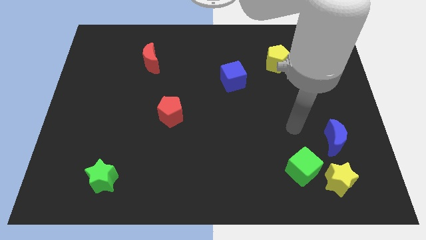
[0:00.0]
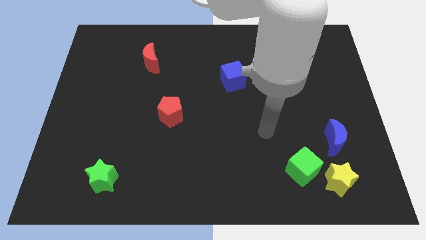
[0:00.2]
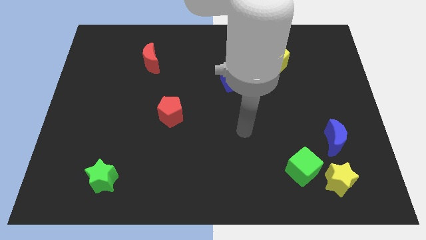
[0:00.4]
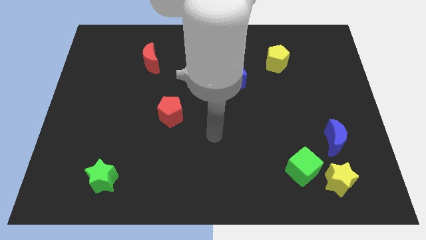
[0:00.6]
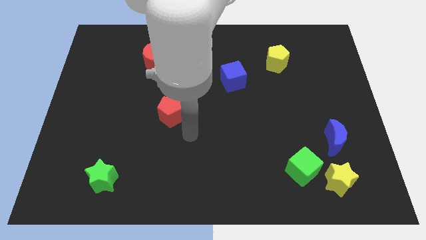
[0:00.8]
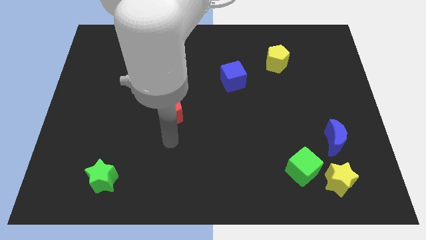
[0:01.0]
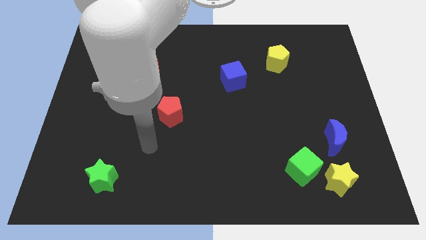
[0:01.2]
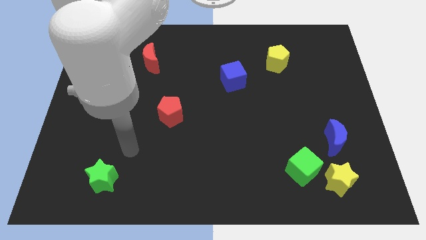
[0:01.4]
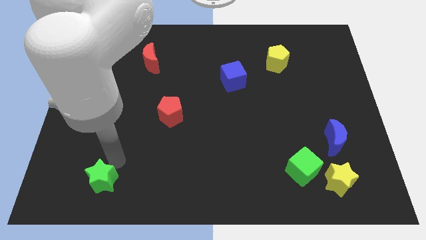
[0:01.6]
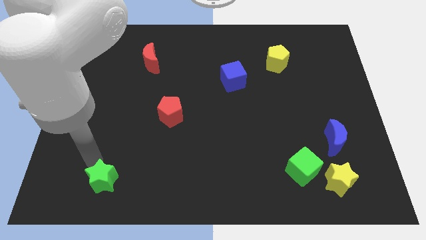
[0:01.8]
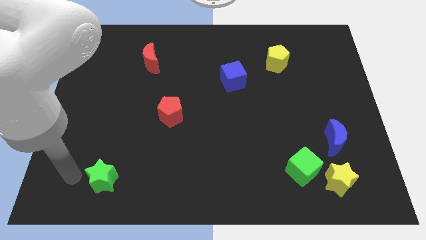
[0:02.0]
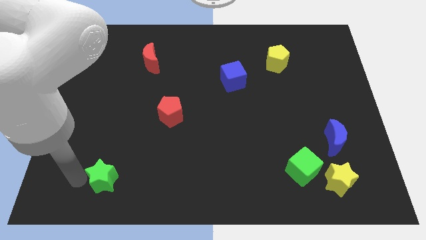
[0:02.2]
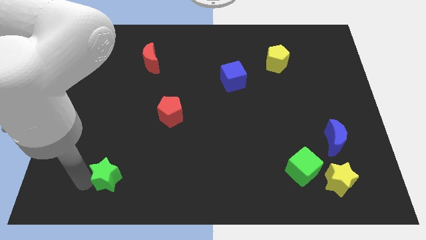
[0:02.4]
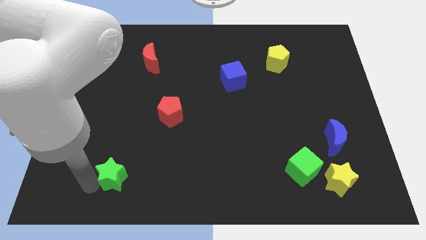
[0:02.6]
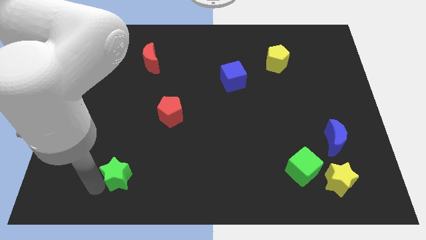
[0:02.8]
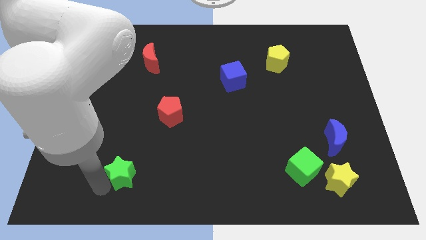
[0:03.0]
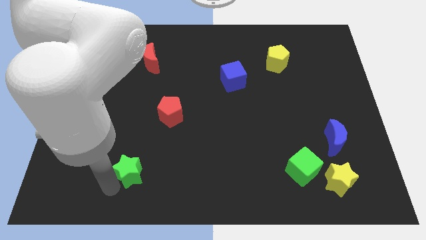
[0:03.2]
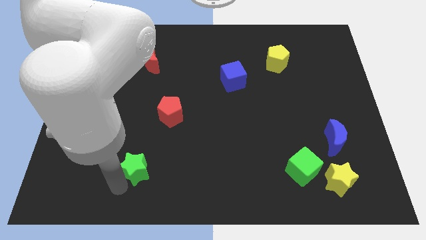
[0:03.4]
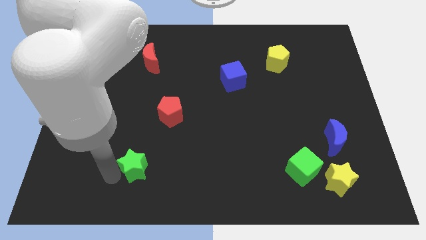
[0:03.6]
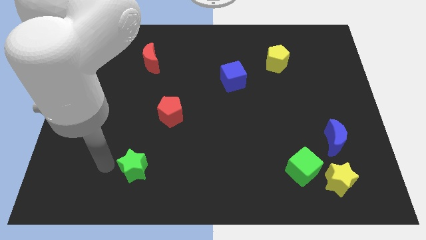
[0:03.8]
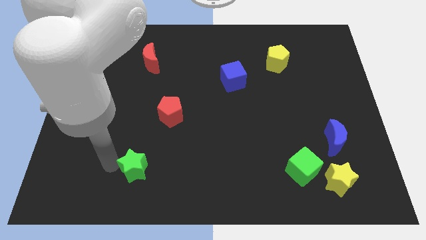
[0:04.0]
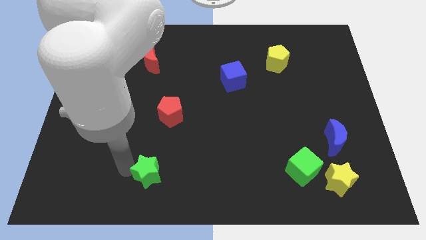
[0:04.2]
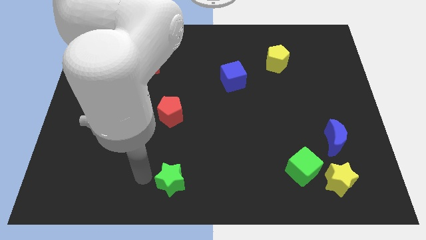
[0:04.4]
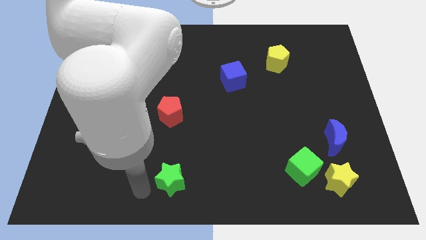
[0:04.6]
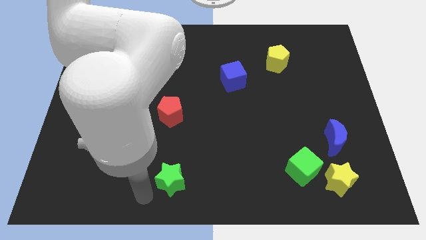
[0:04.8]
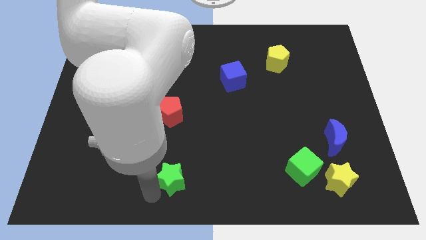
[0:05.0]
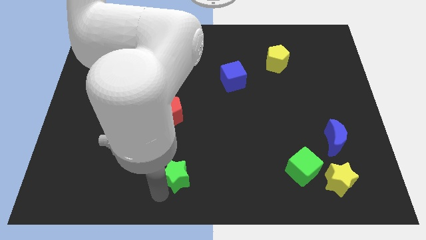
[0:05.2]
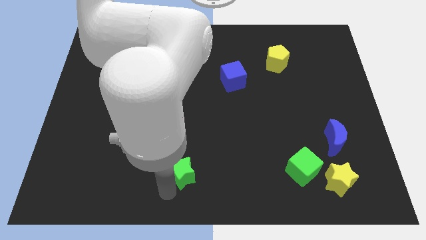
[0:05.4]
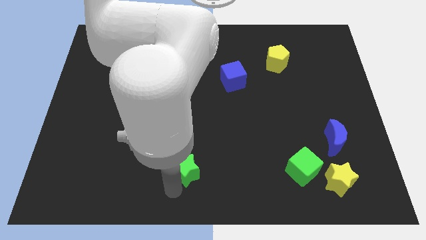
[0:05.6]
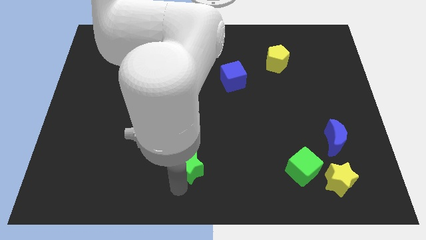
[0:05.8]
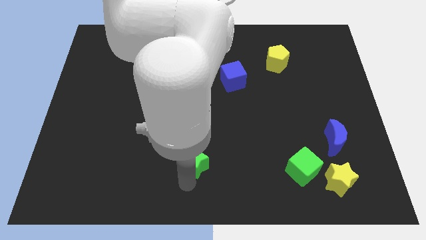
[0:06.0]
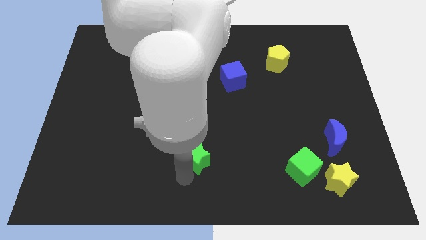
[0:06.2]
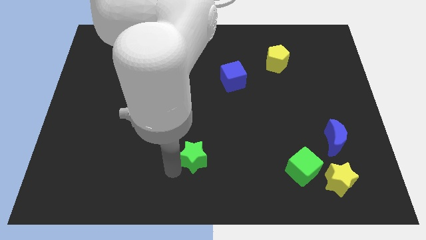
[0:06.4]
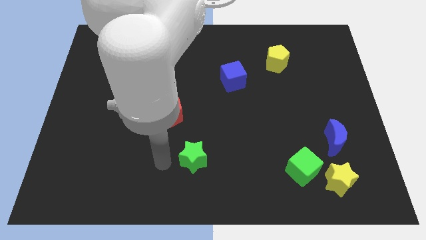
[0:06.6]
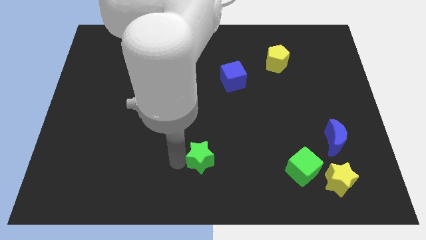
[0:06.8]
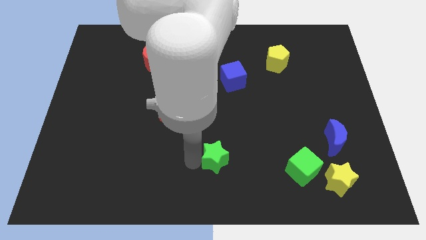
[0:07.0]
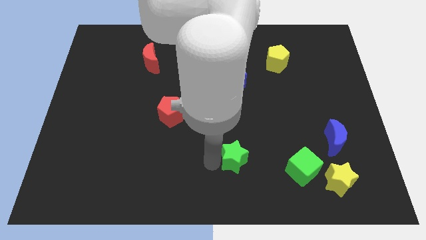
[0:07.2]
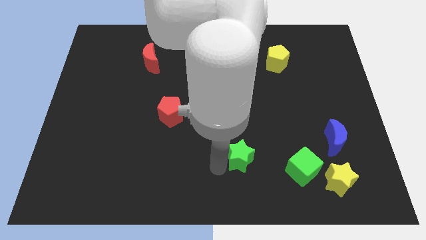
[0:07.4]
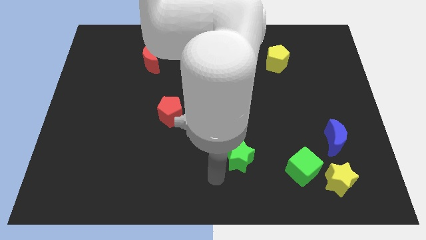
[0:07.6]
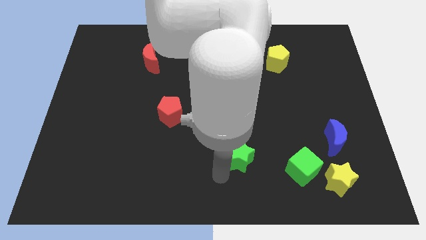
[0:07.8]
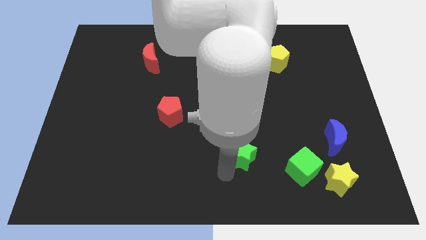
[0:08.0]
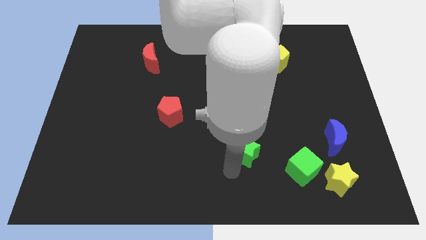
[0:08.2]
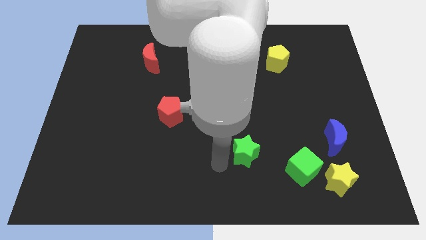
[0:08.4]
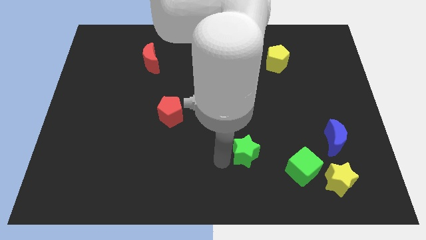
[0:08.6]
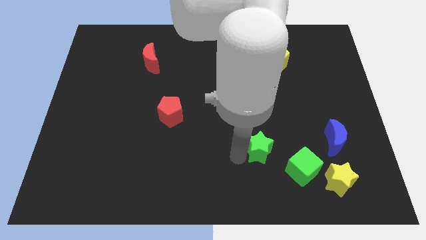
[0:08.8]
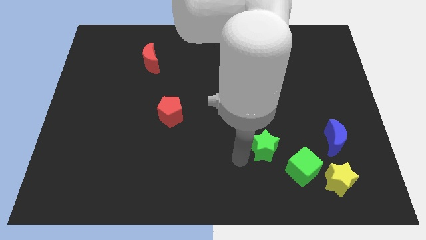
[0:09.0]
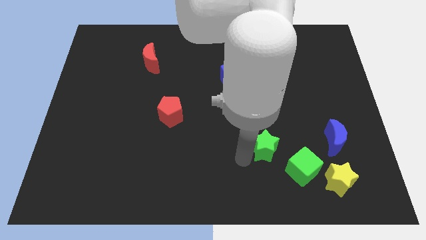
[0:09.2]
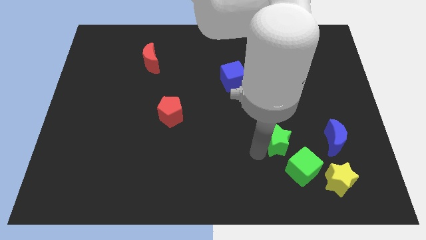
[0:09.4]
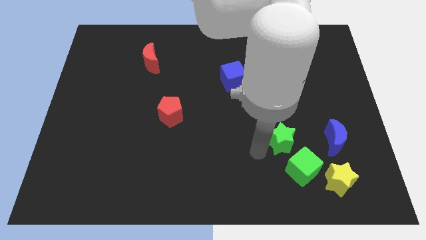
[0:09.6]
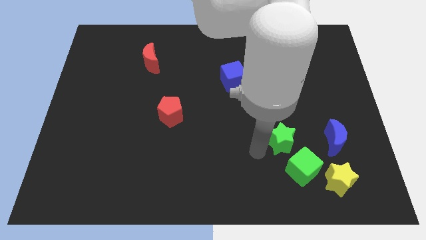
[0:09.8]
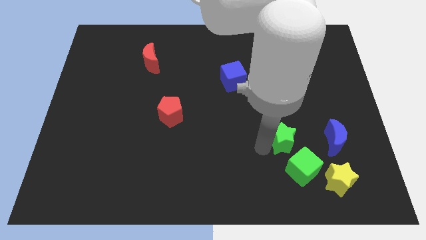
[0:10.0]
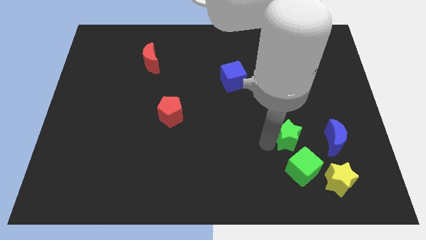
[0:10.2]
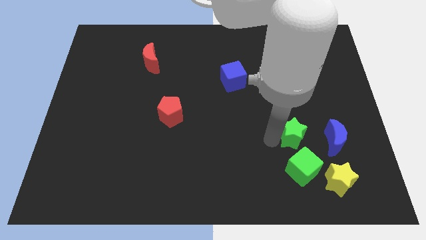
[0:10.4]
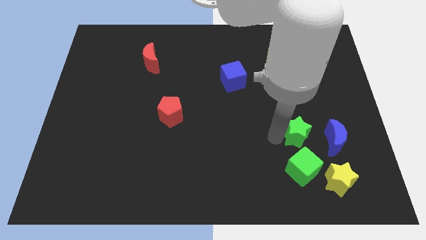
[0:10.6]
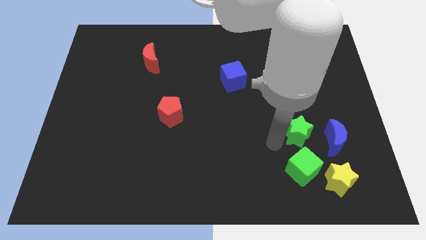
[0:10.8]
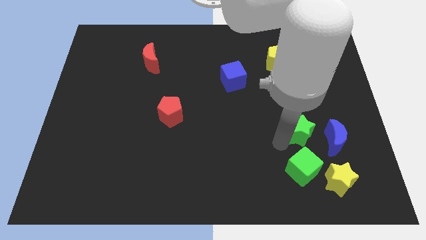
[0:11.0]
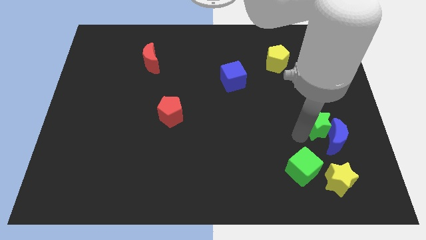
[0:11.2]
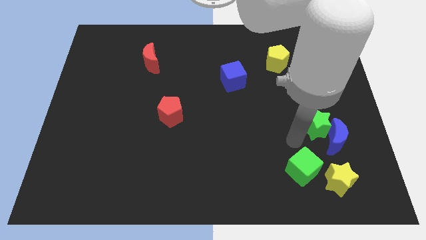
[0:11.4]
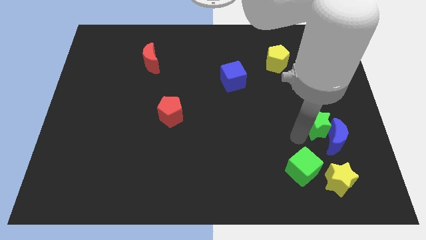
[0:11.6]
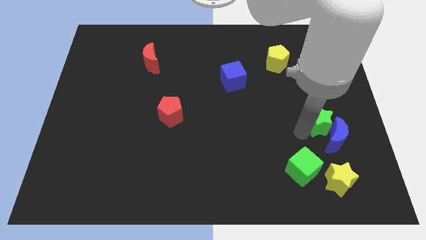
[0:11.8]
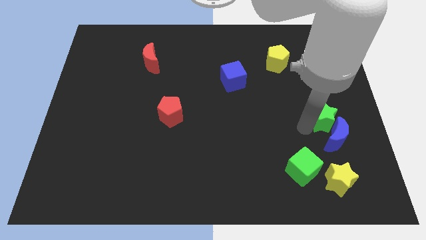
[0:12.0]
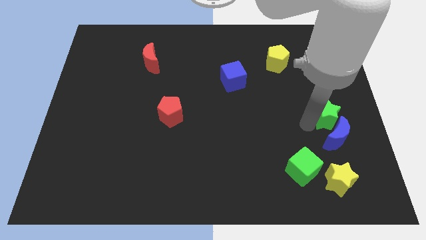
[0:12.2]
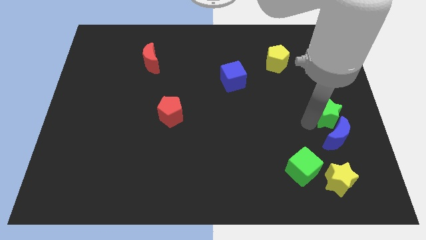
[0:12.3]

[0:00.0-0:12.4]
push the green star to the center right
